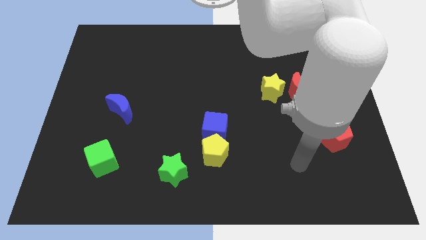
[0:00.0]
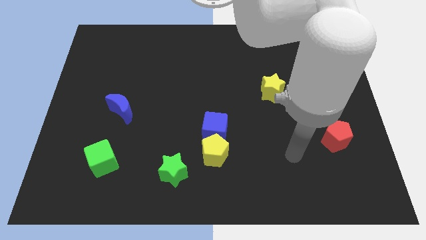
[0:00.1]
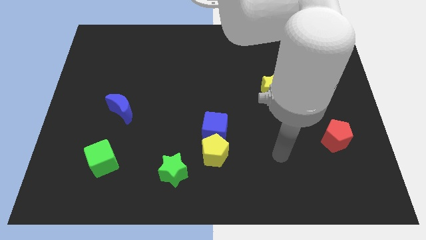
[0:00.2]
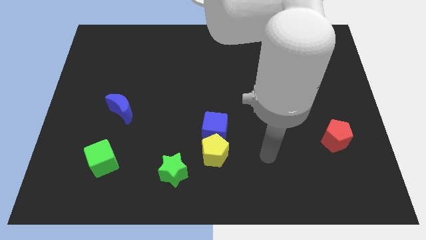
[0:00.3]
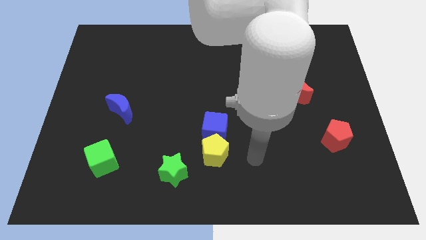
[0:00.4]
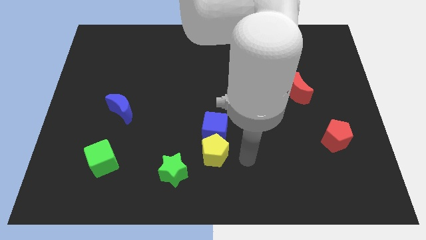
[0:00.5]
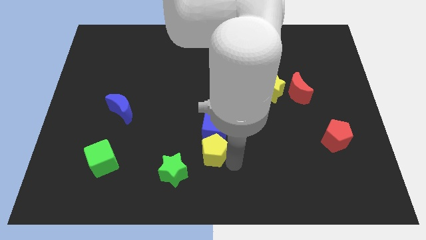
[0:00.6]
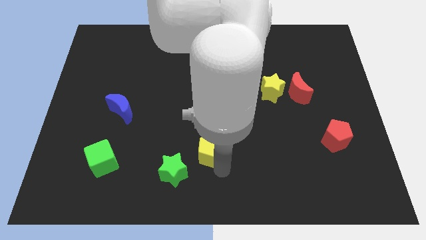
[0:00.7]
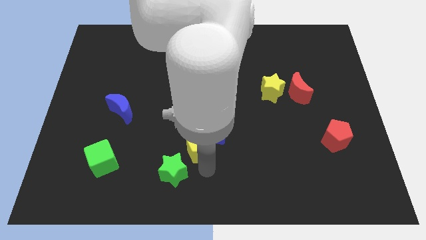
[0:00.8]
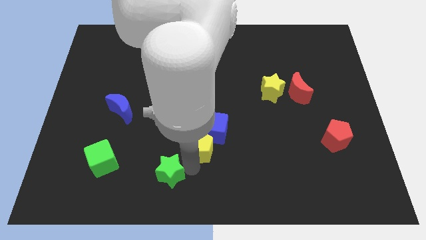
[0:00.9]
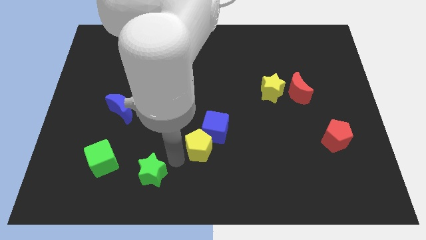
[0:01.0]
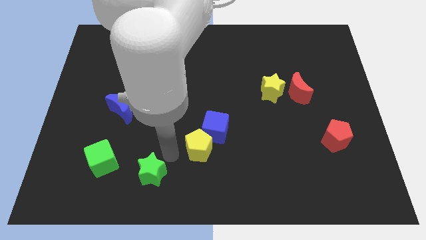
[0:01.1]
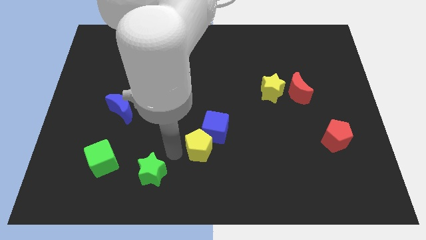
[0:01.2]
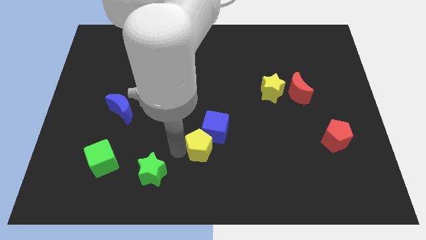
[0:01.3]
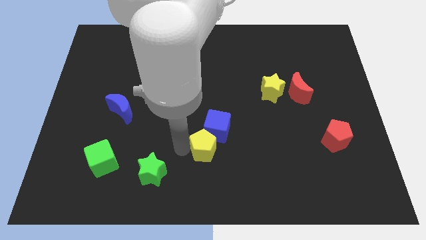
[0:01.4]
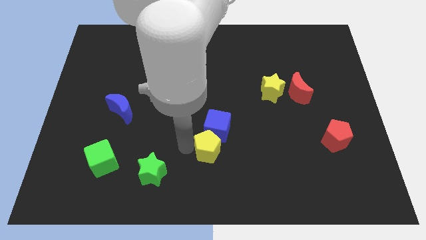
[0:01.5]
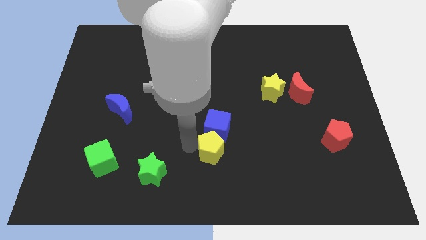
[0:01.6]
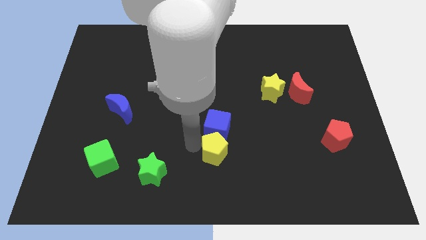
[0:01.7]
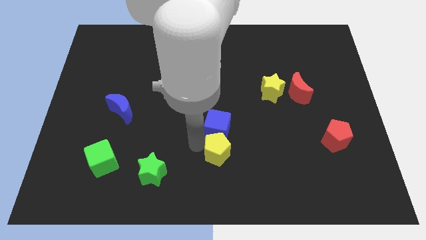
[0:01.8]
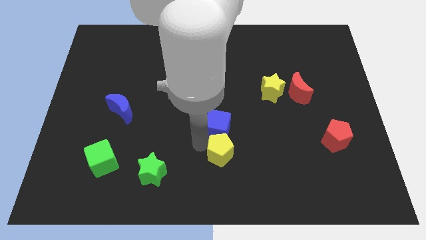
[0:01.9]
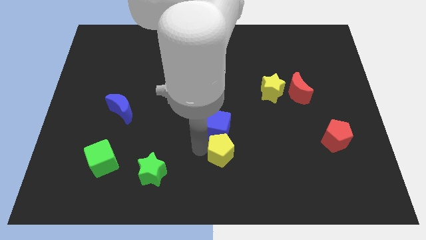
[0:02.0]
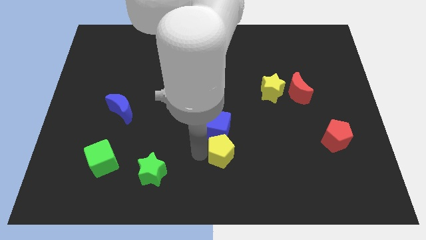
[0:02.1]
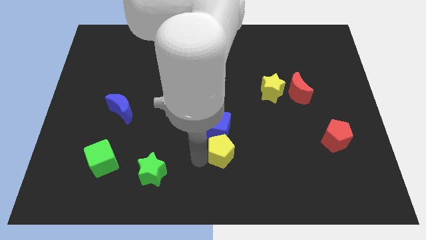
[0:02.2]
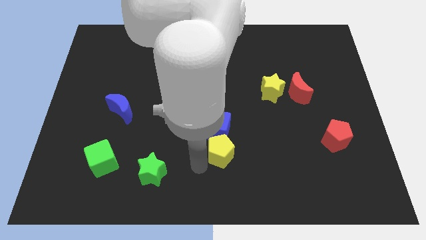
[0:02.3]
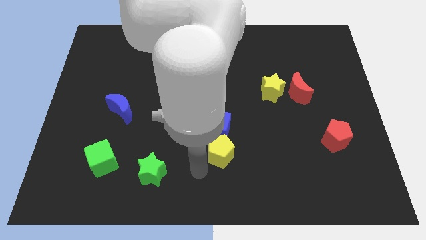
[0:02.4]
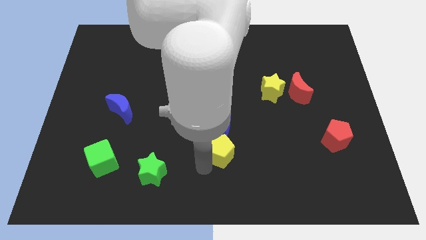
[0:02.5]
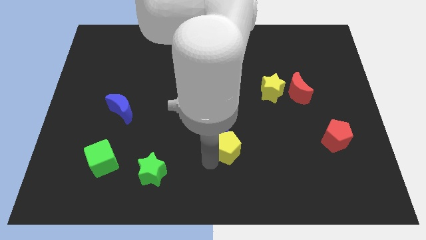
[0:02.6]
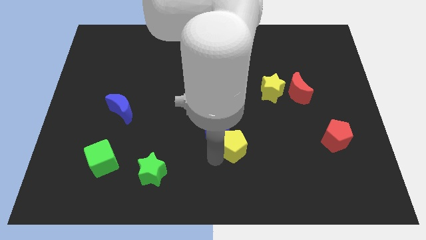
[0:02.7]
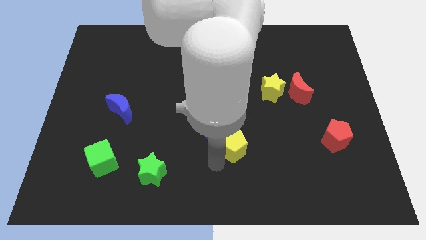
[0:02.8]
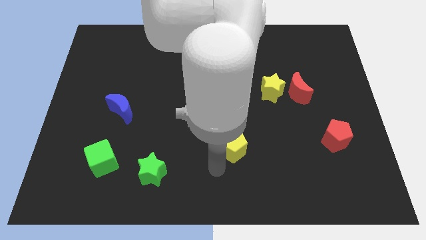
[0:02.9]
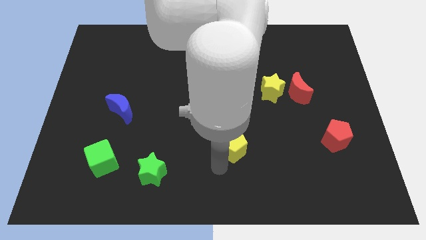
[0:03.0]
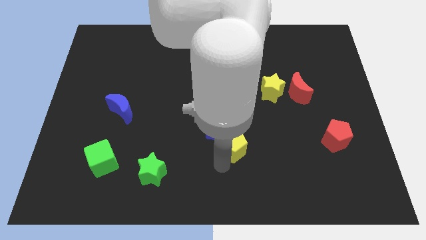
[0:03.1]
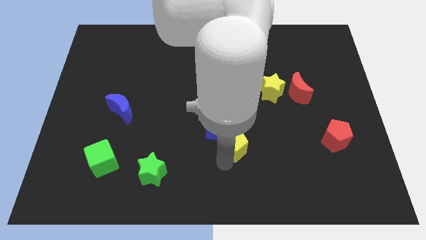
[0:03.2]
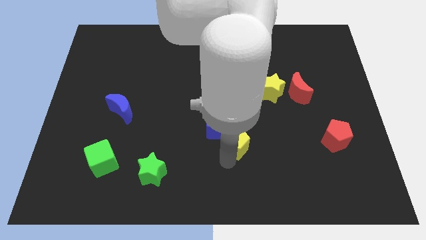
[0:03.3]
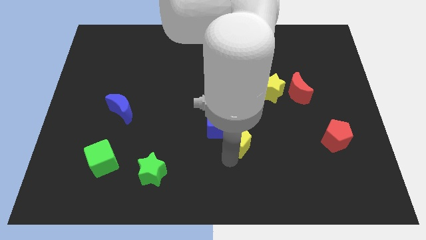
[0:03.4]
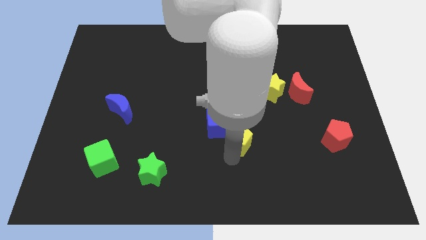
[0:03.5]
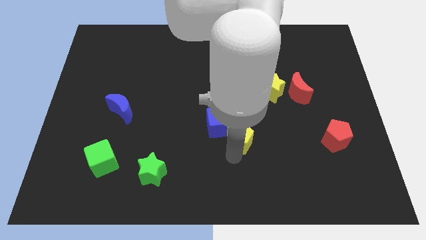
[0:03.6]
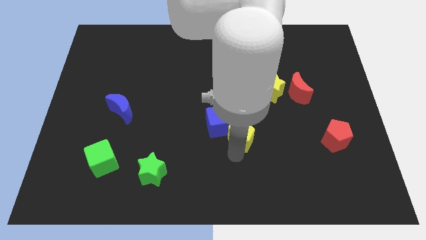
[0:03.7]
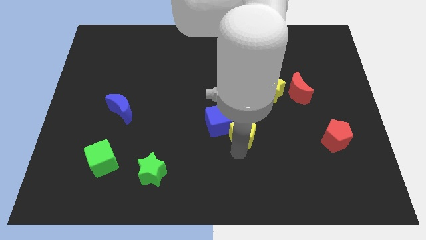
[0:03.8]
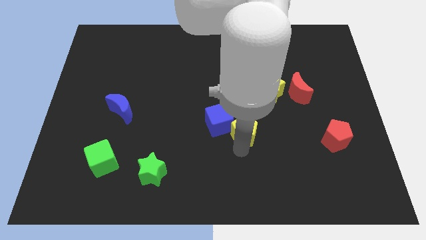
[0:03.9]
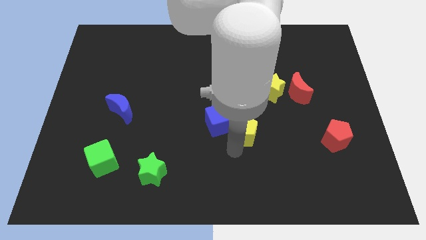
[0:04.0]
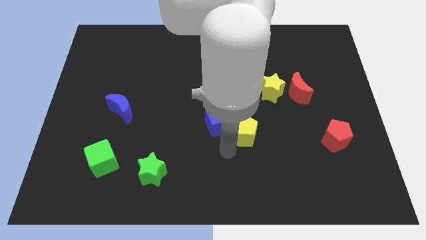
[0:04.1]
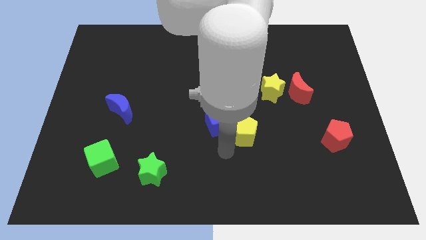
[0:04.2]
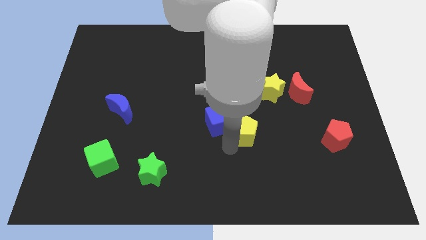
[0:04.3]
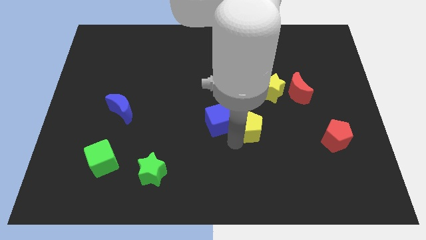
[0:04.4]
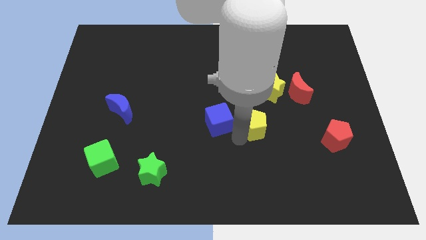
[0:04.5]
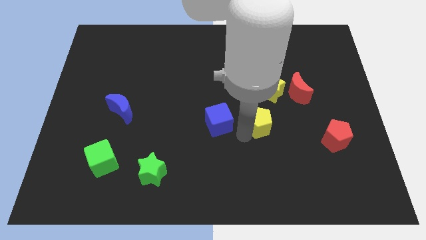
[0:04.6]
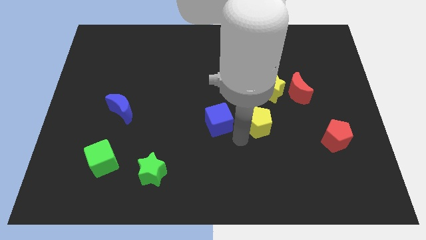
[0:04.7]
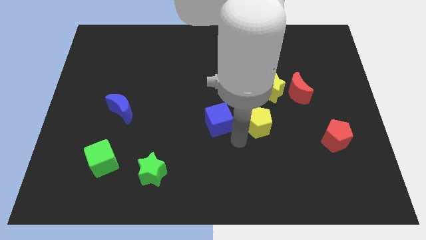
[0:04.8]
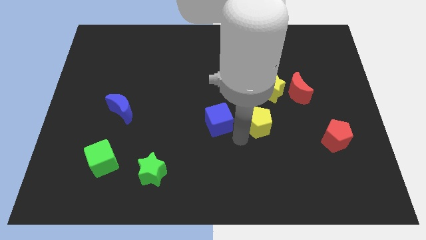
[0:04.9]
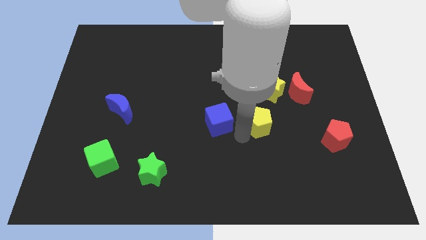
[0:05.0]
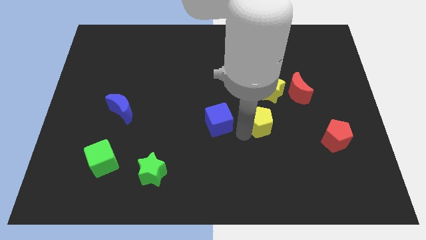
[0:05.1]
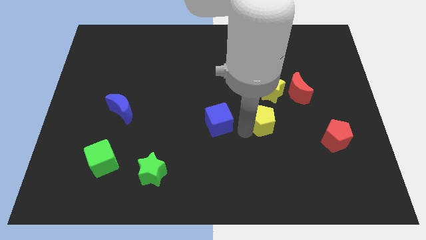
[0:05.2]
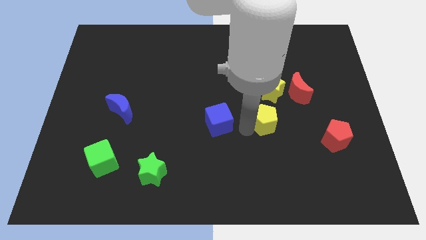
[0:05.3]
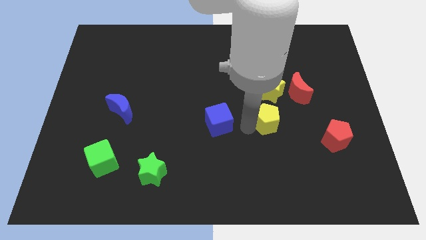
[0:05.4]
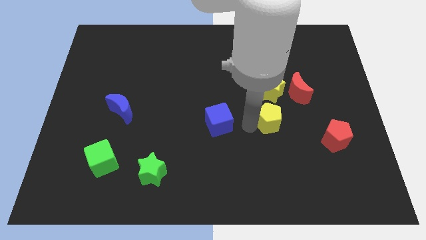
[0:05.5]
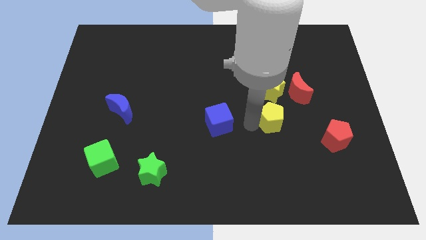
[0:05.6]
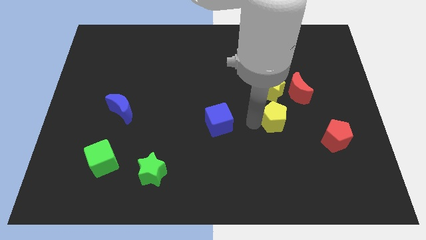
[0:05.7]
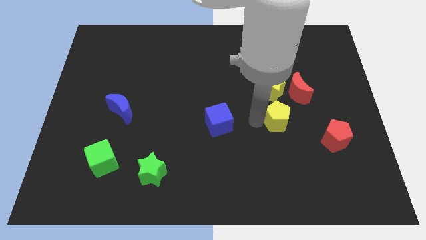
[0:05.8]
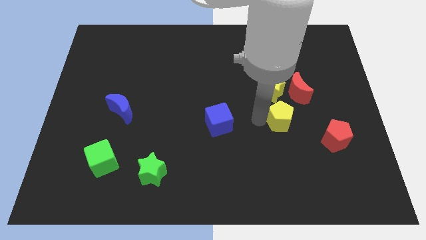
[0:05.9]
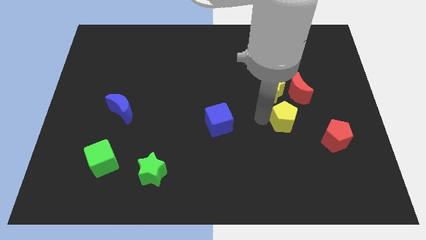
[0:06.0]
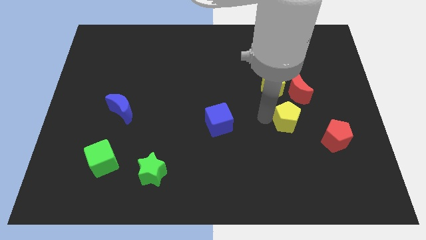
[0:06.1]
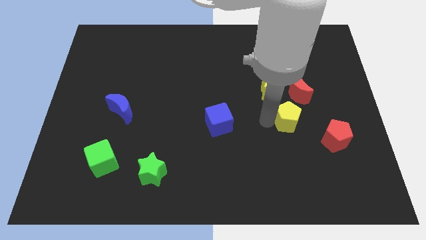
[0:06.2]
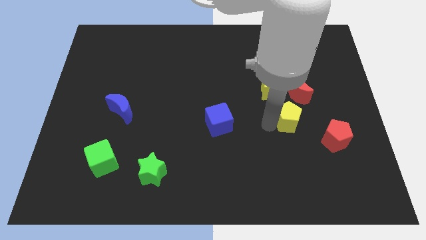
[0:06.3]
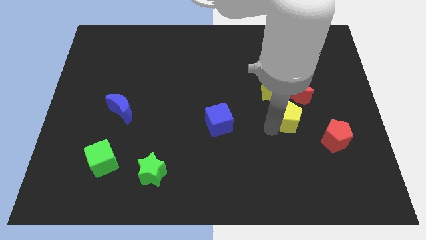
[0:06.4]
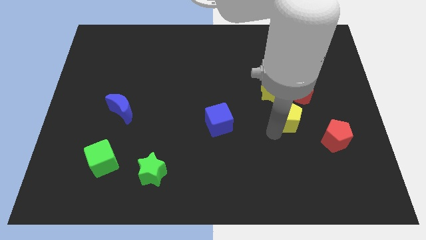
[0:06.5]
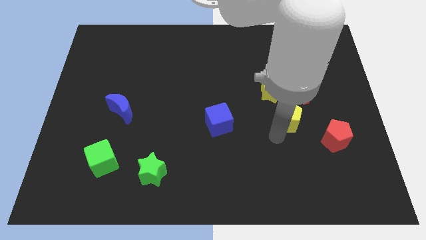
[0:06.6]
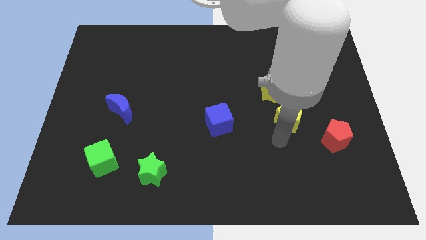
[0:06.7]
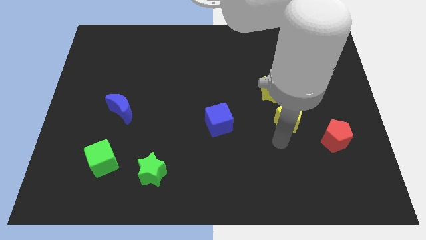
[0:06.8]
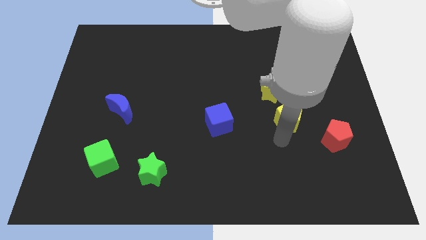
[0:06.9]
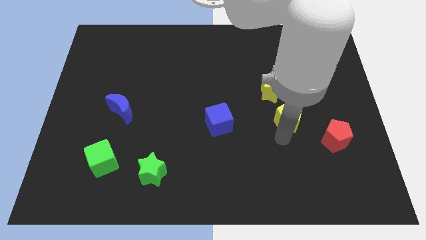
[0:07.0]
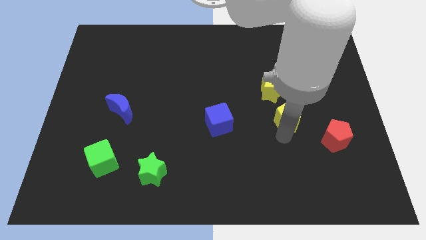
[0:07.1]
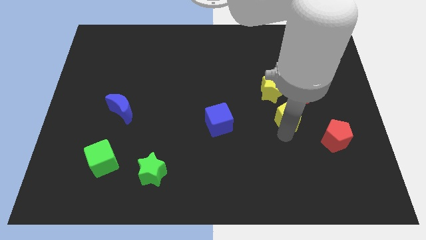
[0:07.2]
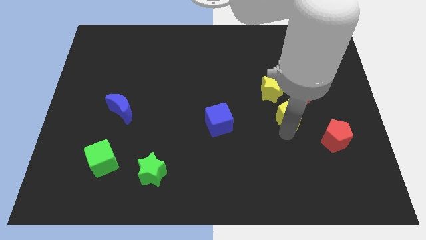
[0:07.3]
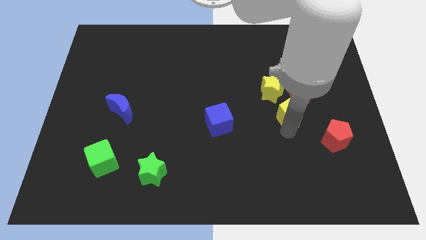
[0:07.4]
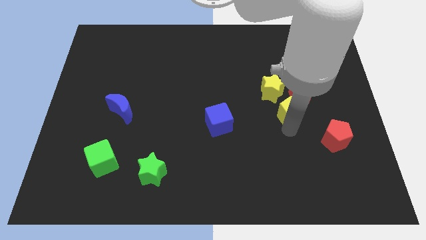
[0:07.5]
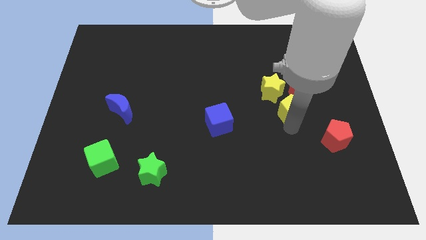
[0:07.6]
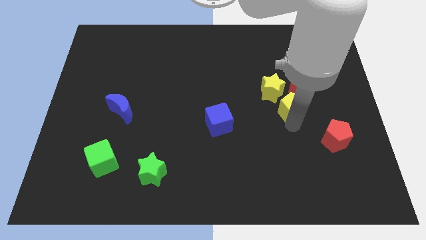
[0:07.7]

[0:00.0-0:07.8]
move the yellow pentagon towards the red moon
